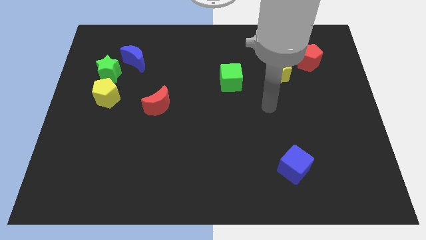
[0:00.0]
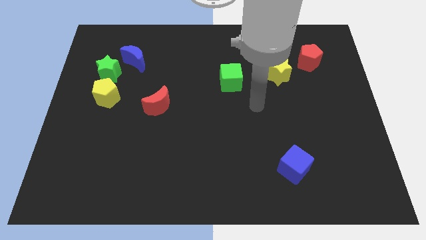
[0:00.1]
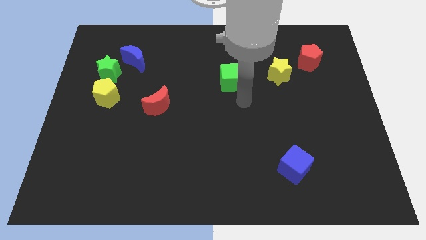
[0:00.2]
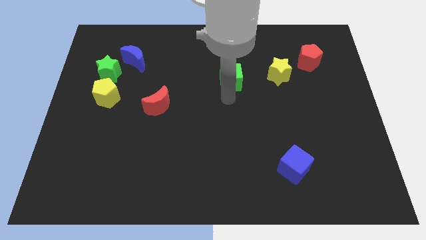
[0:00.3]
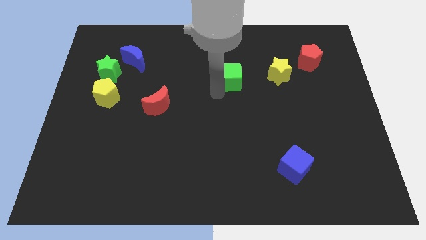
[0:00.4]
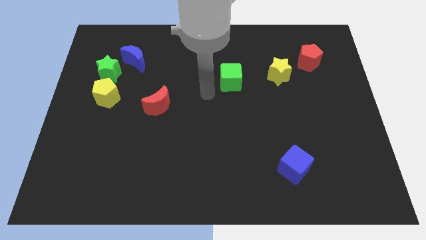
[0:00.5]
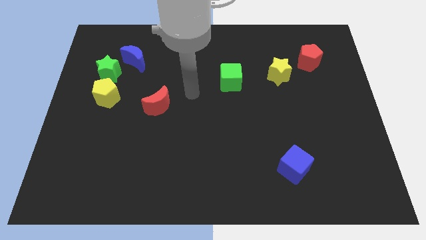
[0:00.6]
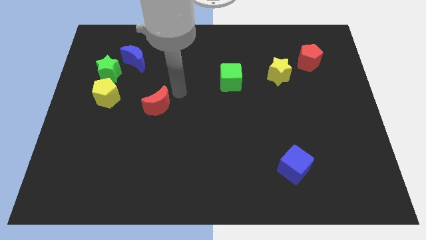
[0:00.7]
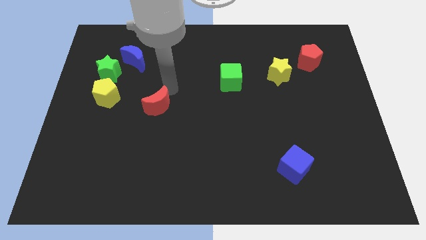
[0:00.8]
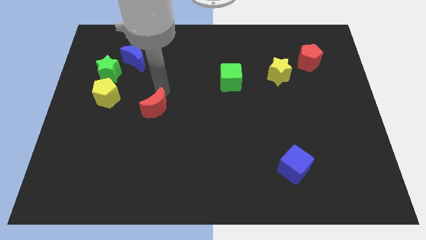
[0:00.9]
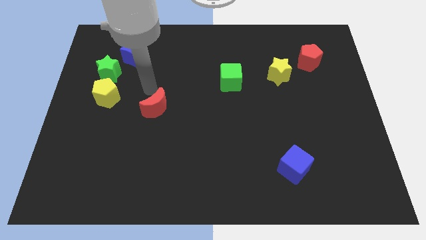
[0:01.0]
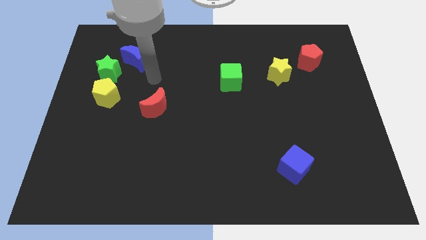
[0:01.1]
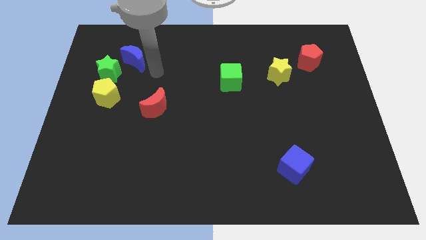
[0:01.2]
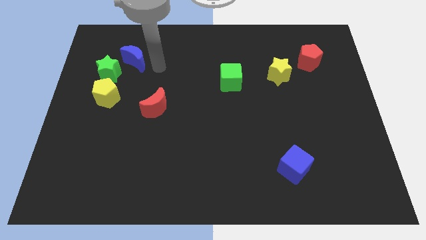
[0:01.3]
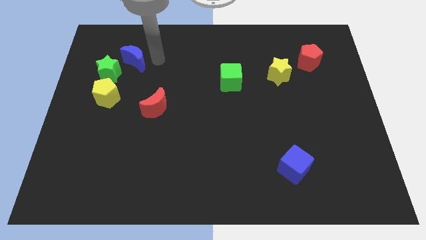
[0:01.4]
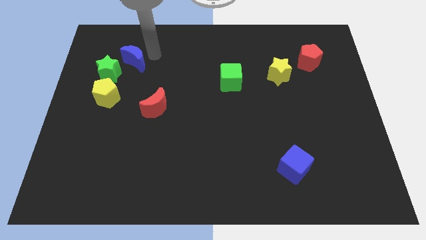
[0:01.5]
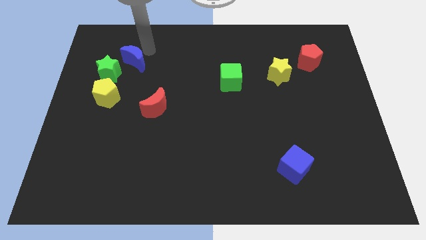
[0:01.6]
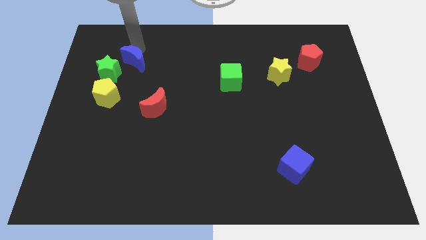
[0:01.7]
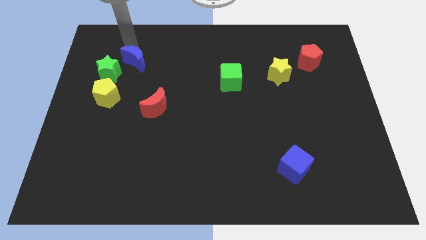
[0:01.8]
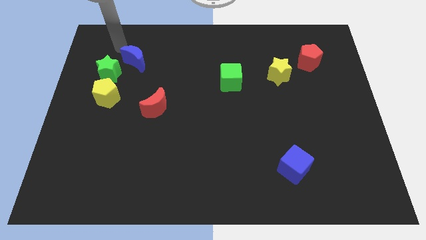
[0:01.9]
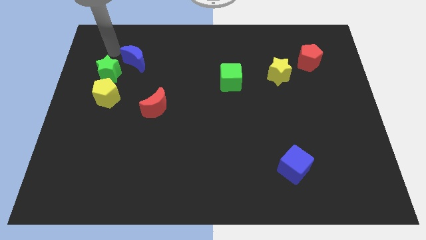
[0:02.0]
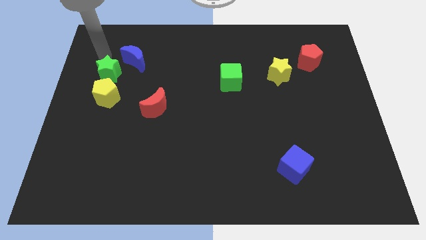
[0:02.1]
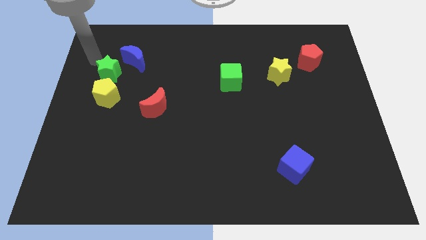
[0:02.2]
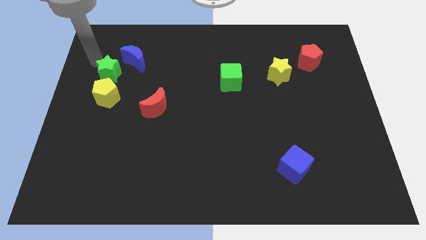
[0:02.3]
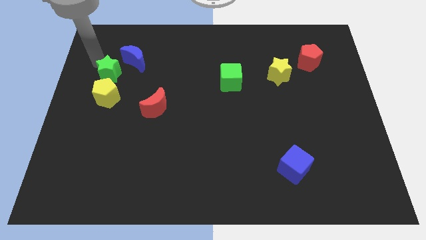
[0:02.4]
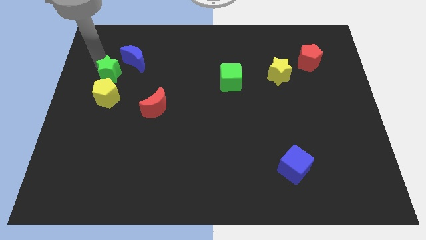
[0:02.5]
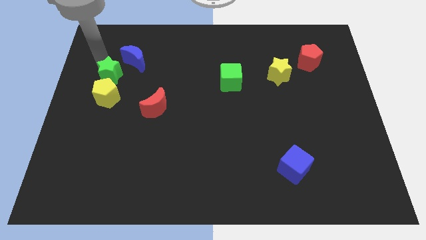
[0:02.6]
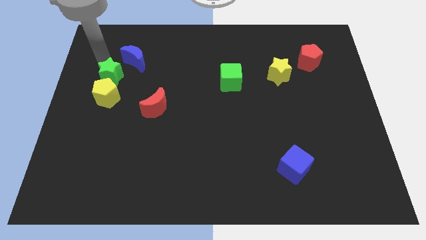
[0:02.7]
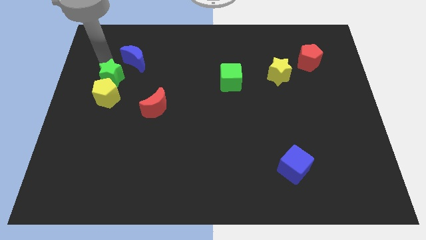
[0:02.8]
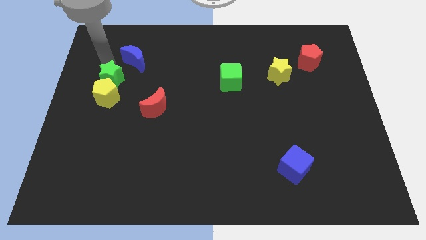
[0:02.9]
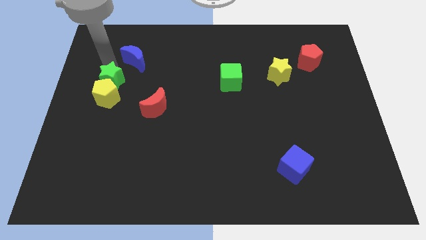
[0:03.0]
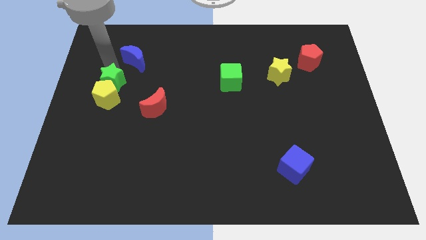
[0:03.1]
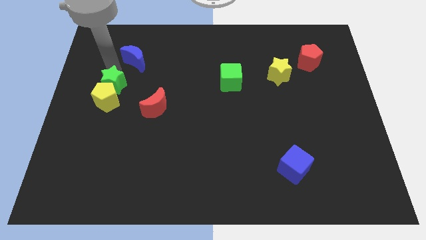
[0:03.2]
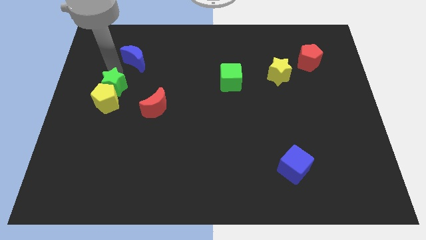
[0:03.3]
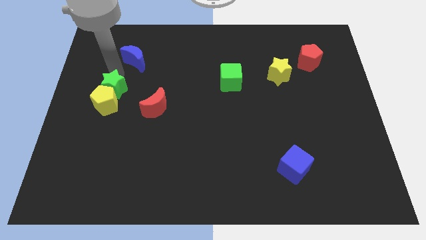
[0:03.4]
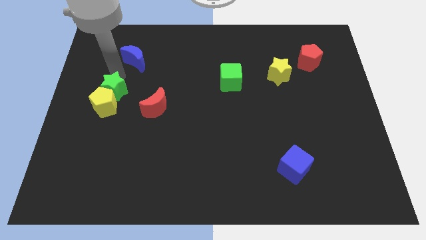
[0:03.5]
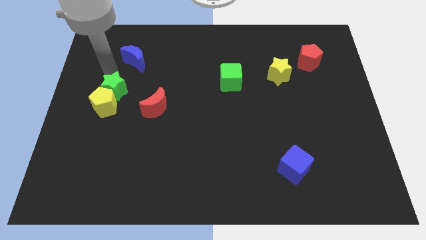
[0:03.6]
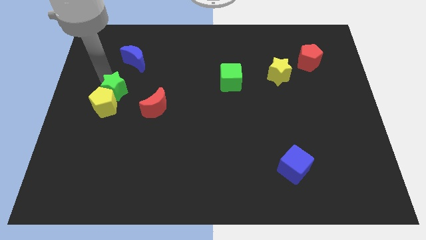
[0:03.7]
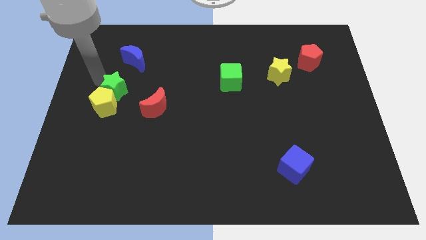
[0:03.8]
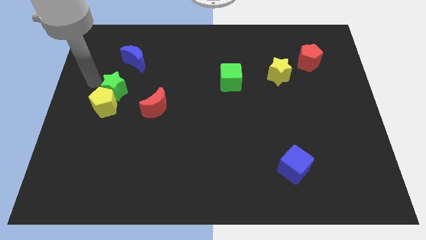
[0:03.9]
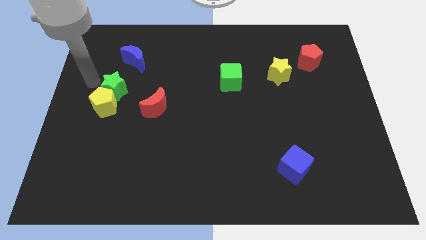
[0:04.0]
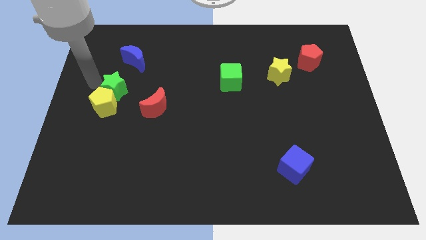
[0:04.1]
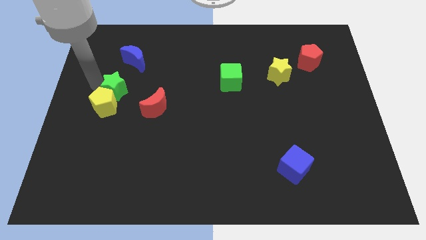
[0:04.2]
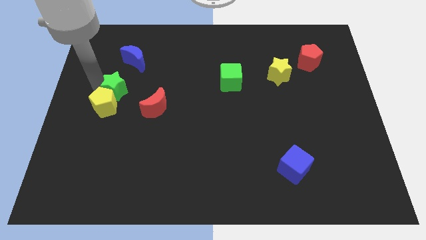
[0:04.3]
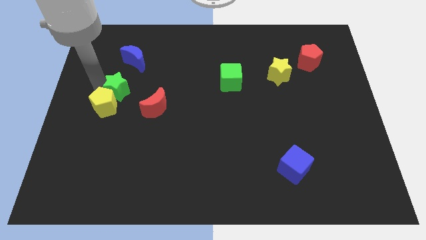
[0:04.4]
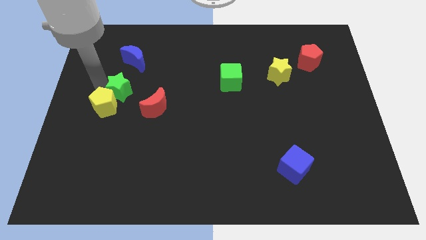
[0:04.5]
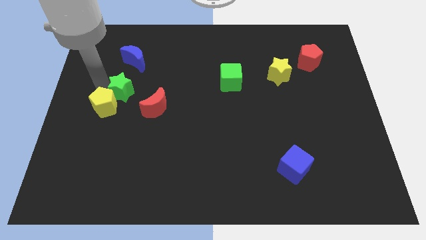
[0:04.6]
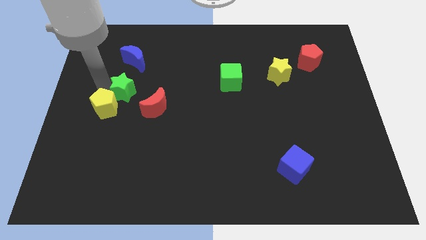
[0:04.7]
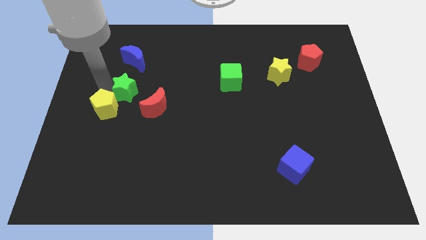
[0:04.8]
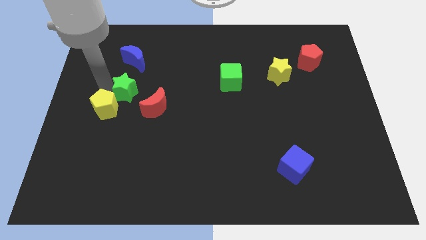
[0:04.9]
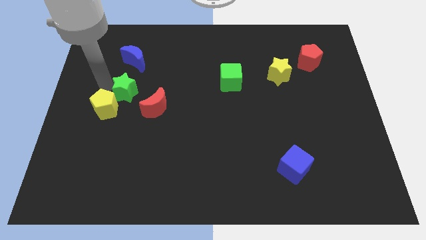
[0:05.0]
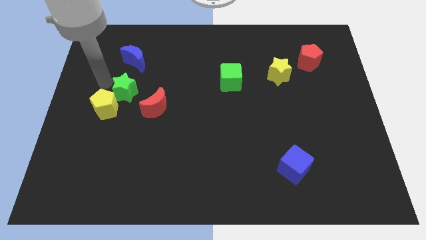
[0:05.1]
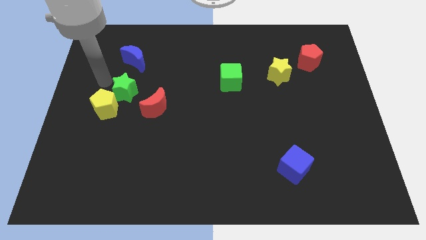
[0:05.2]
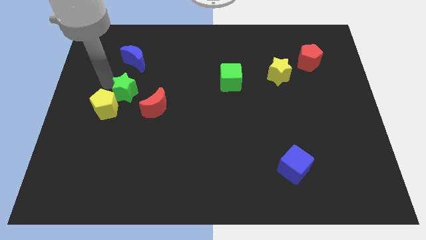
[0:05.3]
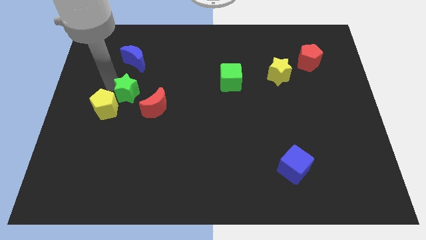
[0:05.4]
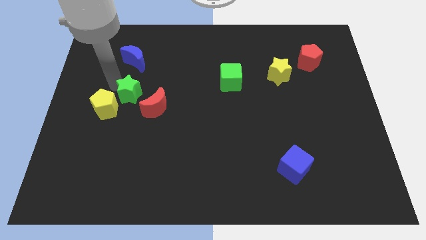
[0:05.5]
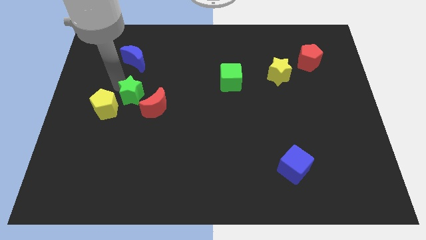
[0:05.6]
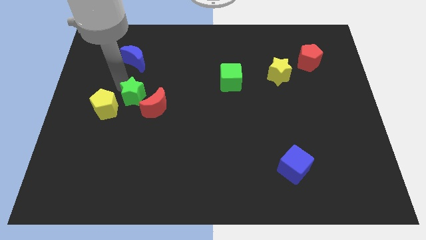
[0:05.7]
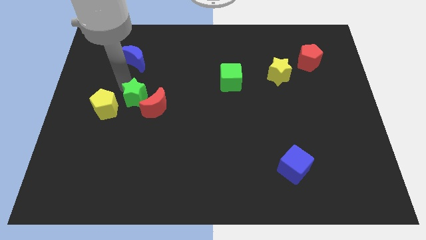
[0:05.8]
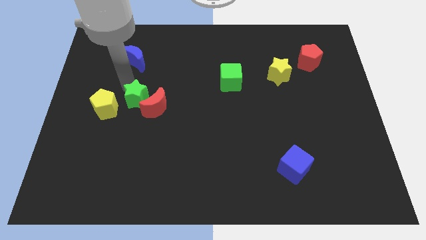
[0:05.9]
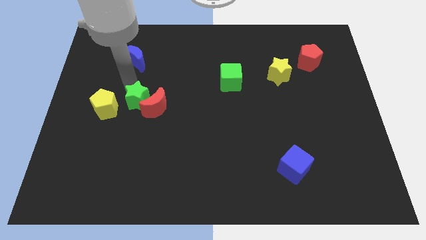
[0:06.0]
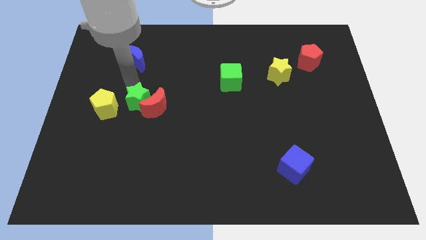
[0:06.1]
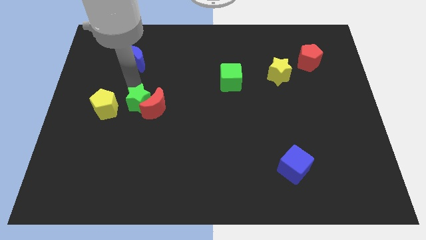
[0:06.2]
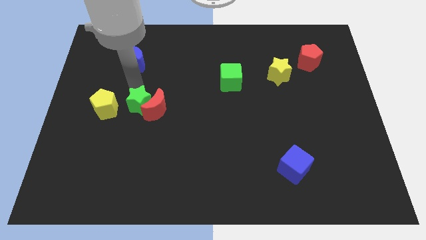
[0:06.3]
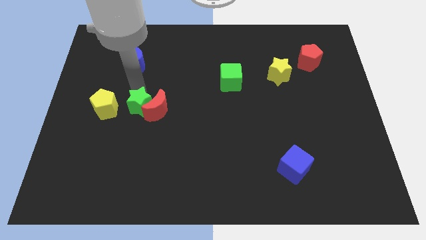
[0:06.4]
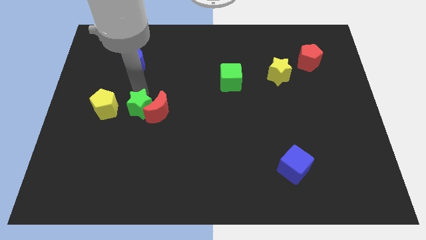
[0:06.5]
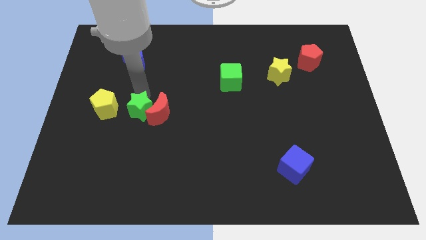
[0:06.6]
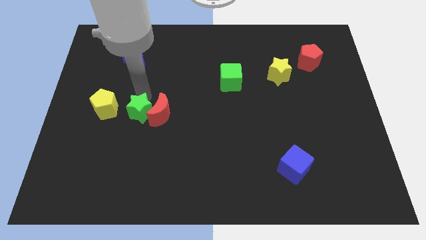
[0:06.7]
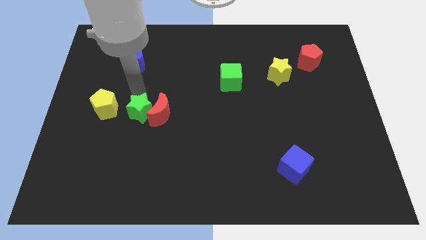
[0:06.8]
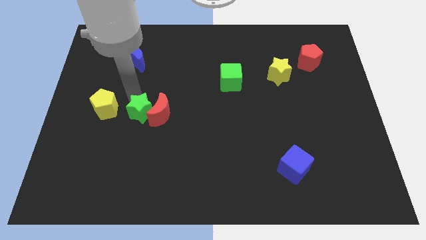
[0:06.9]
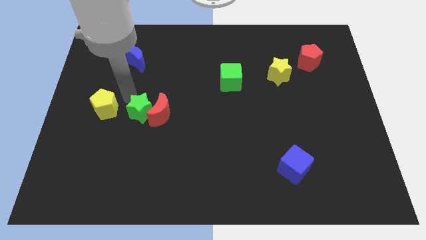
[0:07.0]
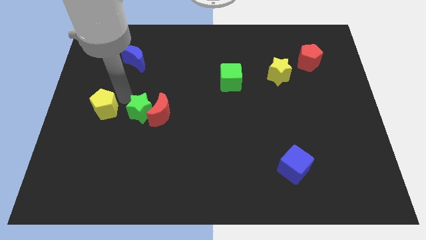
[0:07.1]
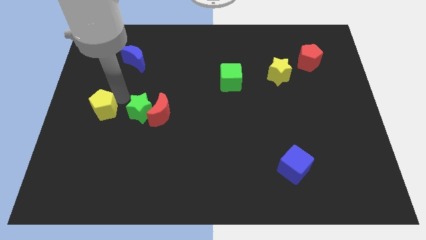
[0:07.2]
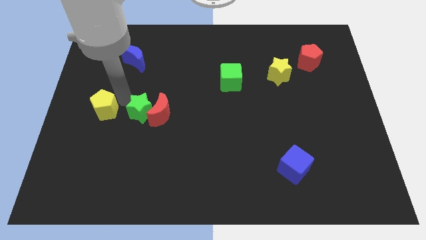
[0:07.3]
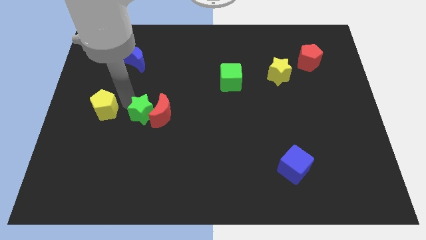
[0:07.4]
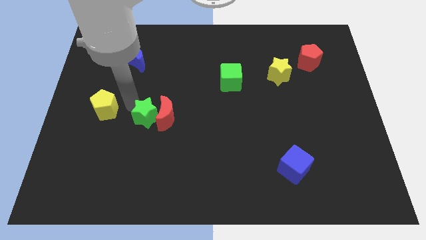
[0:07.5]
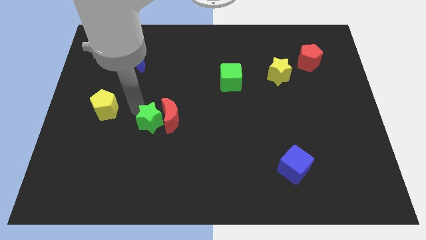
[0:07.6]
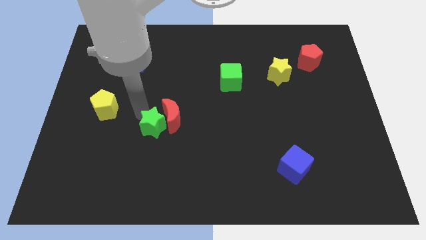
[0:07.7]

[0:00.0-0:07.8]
push the green star downwards and right diagonally
